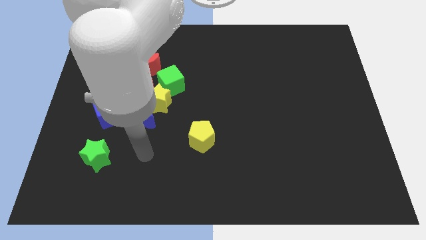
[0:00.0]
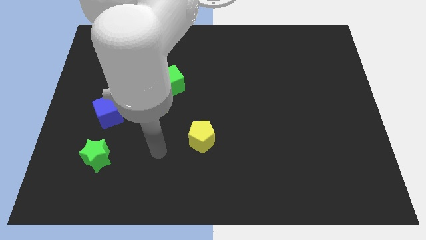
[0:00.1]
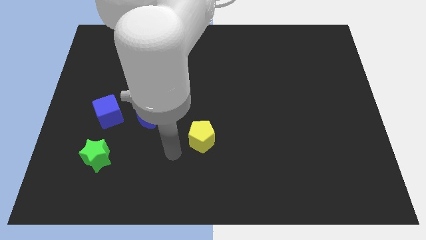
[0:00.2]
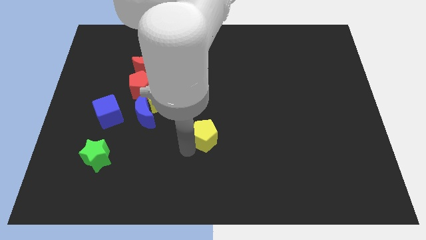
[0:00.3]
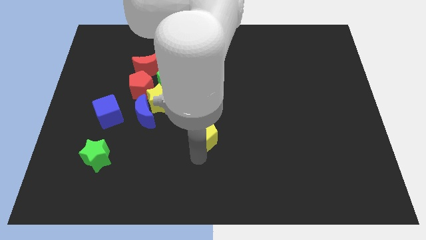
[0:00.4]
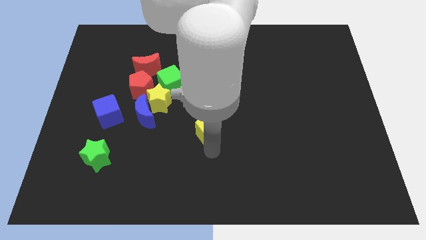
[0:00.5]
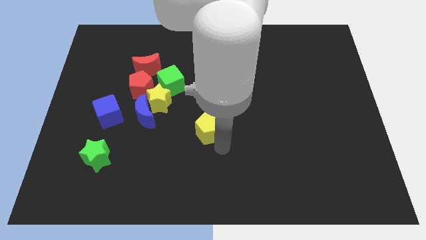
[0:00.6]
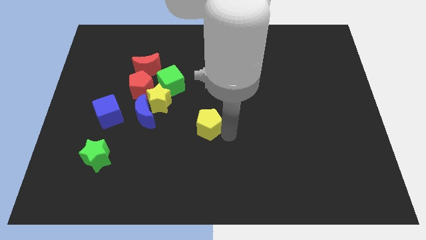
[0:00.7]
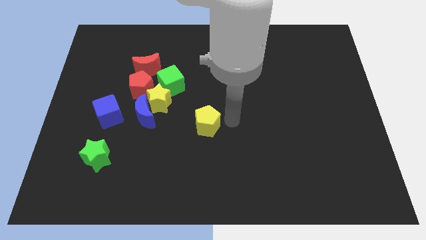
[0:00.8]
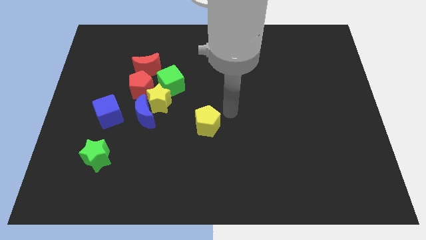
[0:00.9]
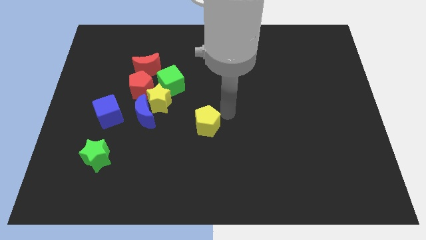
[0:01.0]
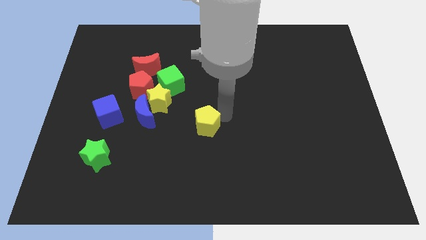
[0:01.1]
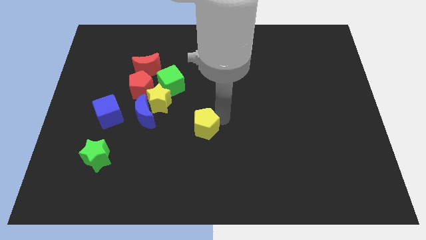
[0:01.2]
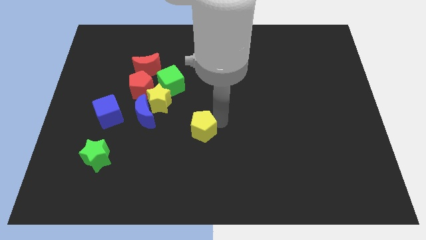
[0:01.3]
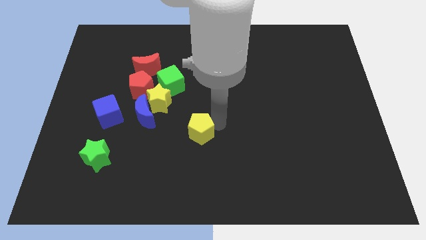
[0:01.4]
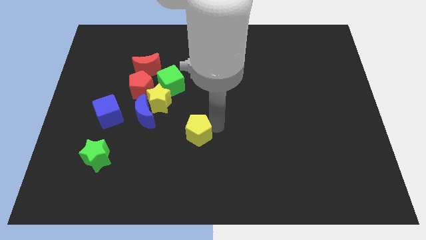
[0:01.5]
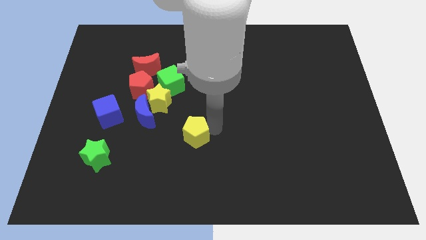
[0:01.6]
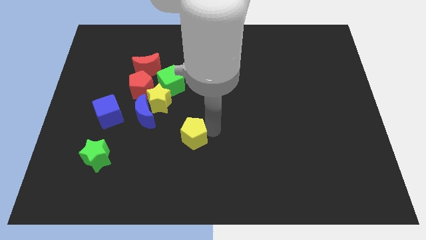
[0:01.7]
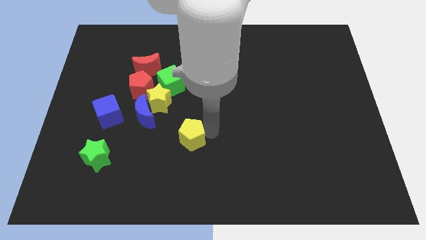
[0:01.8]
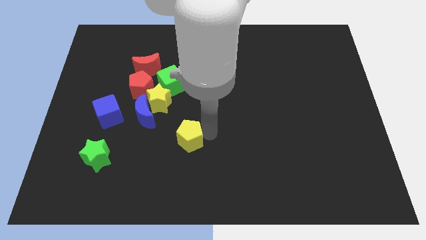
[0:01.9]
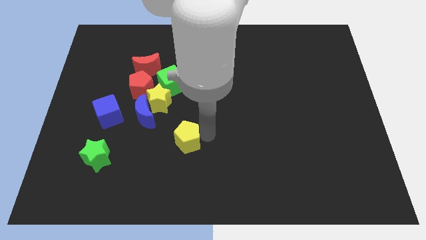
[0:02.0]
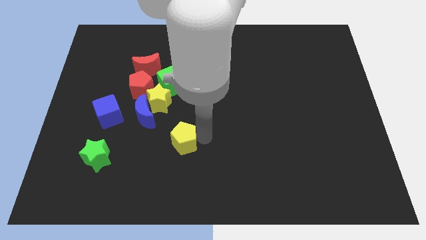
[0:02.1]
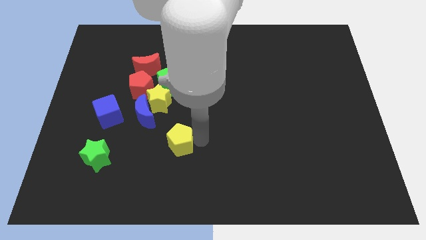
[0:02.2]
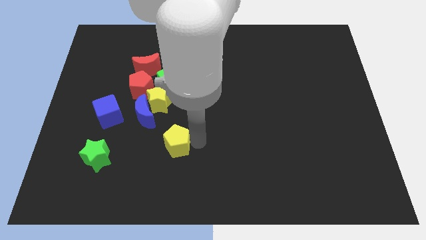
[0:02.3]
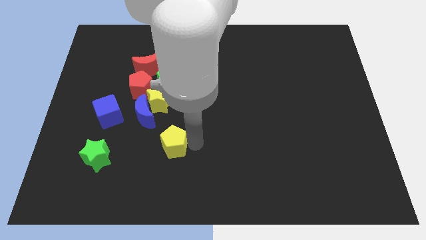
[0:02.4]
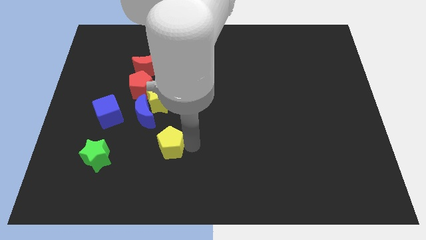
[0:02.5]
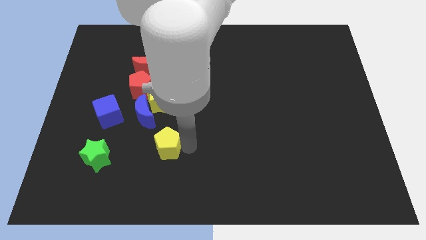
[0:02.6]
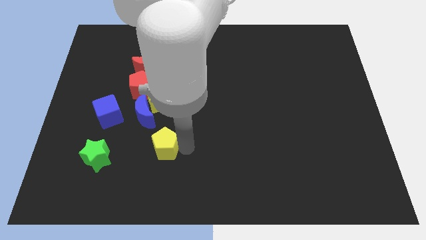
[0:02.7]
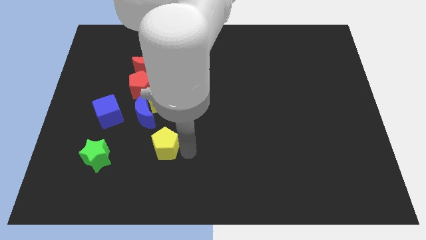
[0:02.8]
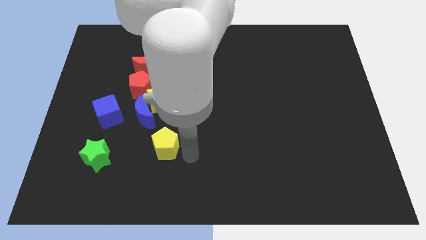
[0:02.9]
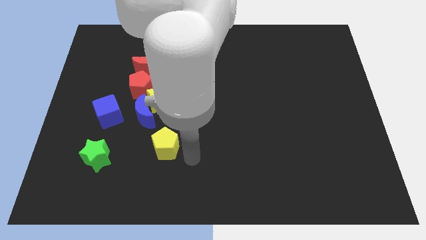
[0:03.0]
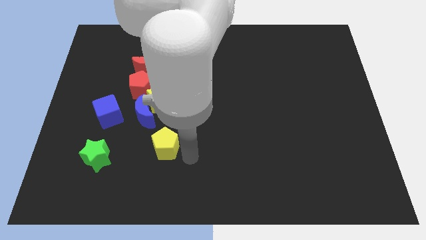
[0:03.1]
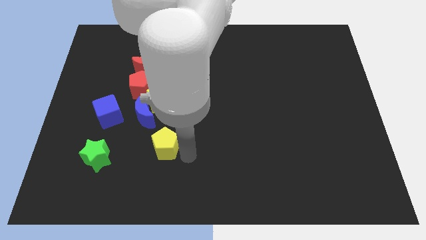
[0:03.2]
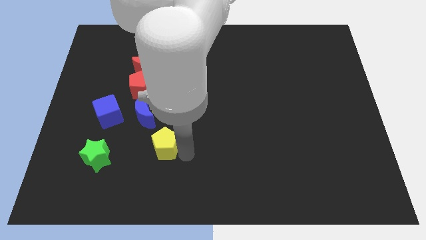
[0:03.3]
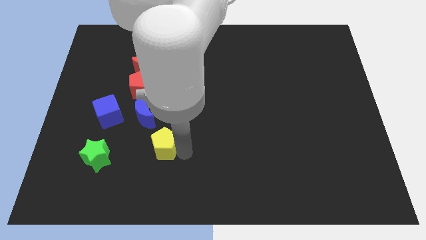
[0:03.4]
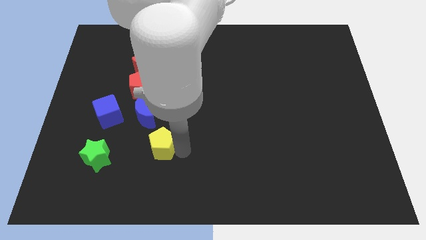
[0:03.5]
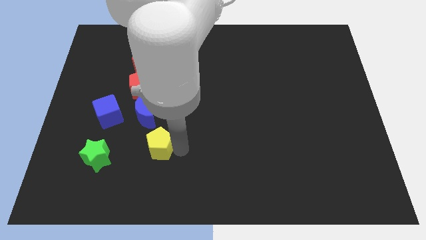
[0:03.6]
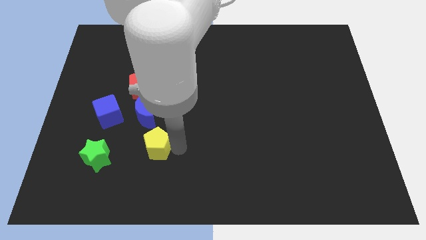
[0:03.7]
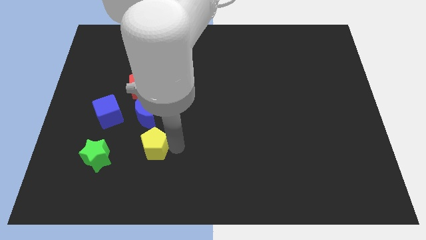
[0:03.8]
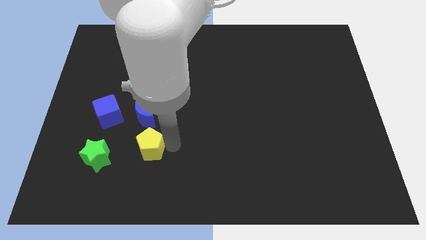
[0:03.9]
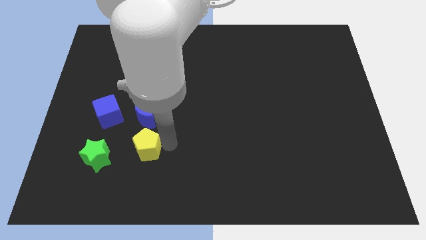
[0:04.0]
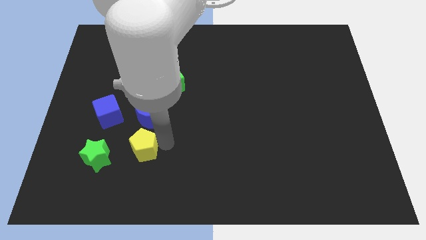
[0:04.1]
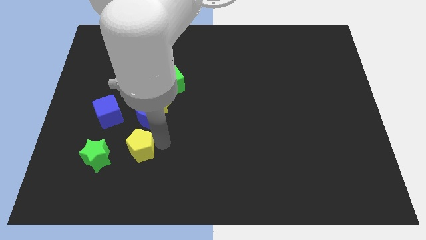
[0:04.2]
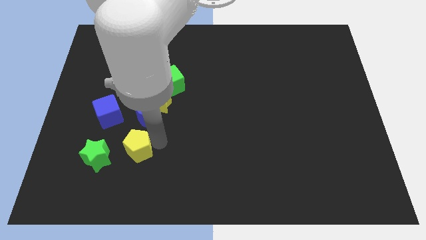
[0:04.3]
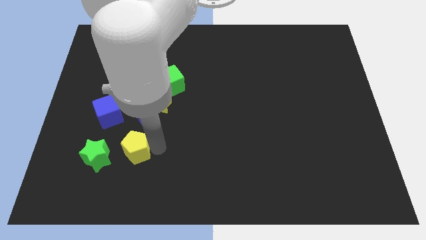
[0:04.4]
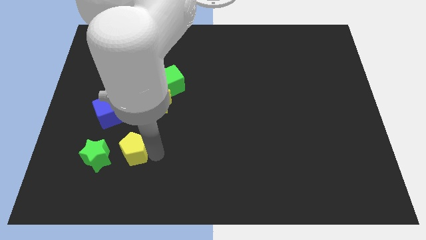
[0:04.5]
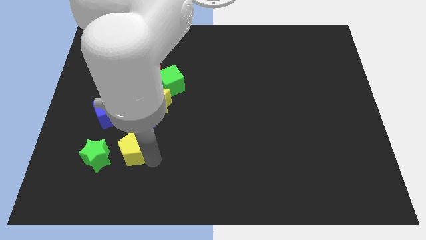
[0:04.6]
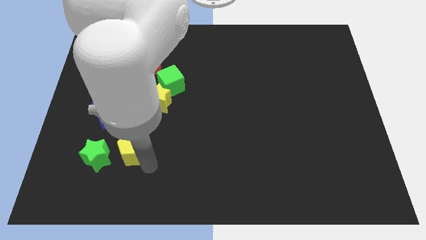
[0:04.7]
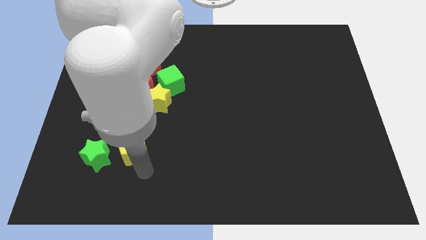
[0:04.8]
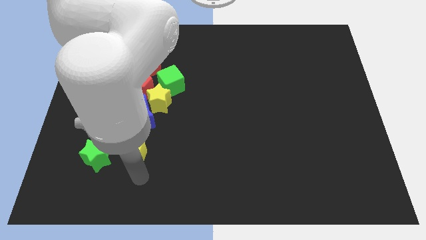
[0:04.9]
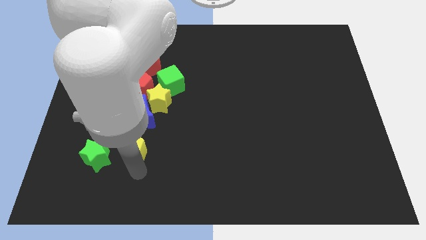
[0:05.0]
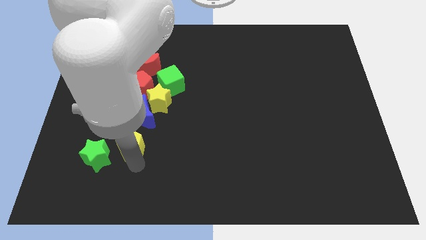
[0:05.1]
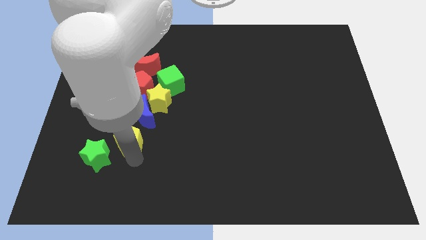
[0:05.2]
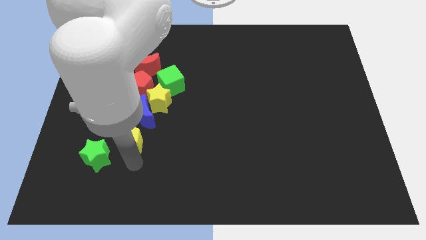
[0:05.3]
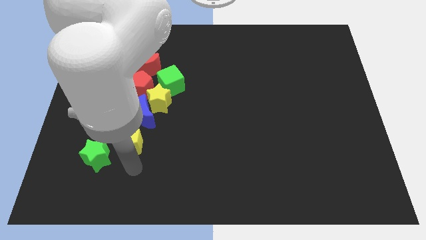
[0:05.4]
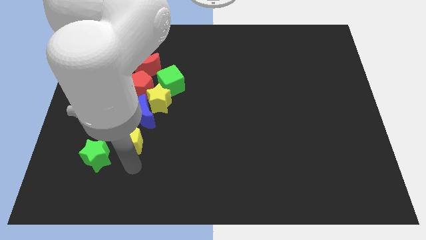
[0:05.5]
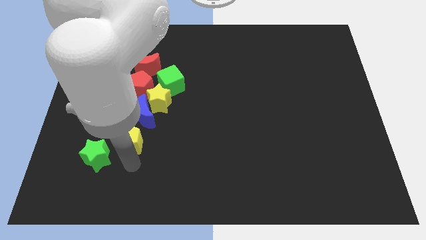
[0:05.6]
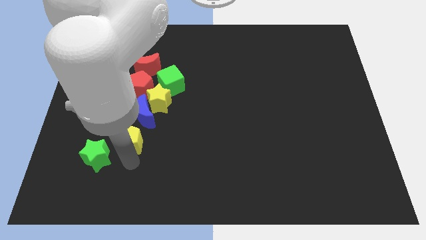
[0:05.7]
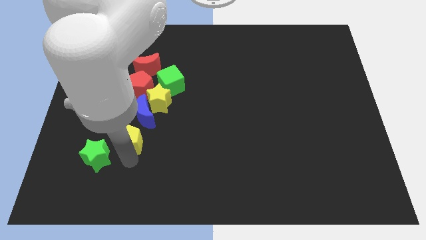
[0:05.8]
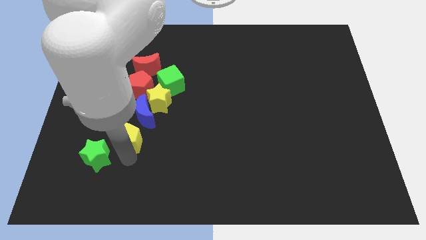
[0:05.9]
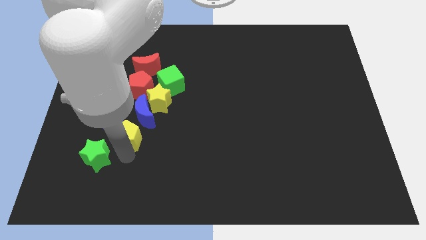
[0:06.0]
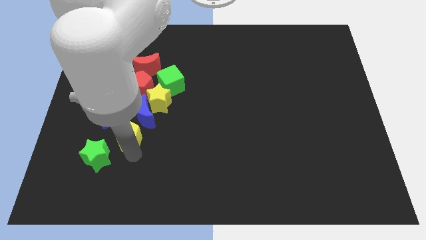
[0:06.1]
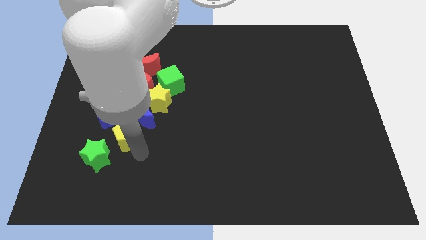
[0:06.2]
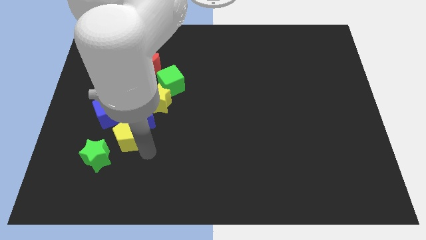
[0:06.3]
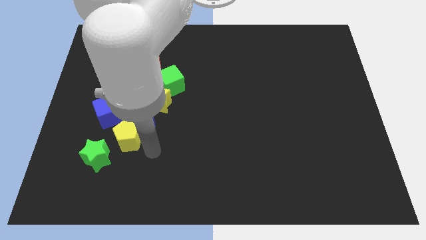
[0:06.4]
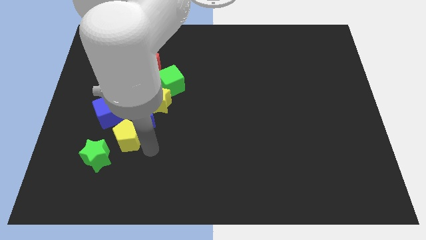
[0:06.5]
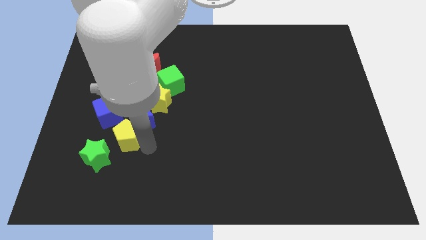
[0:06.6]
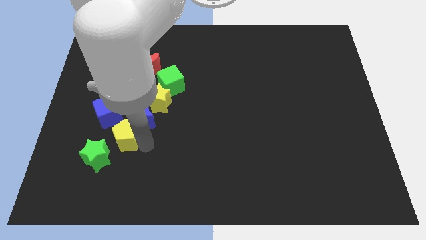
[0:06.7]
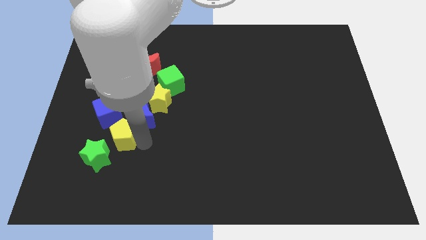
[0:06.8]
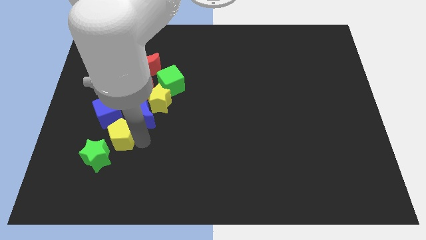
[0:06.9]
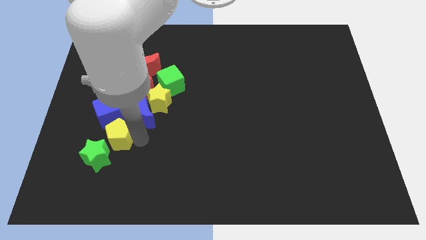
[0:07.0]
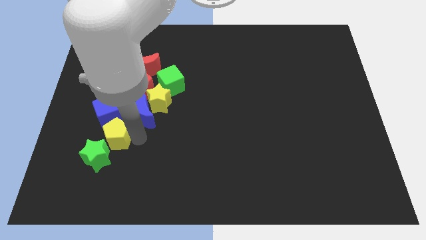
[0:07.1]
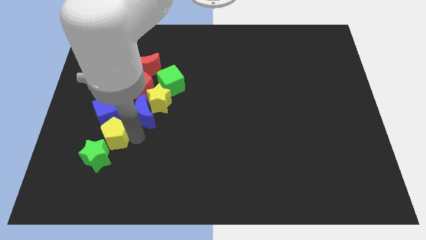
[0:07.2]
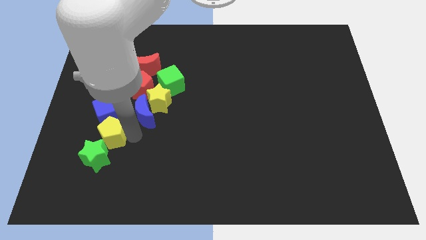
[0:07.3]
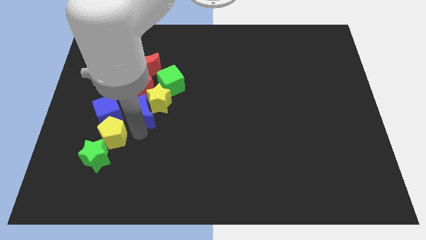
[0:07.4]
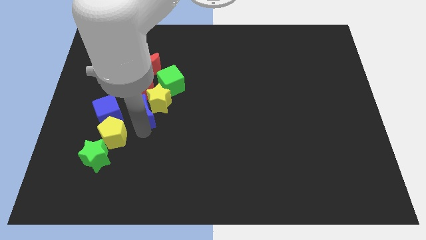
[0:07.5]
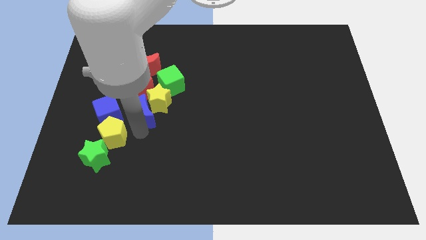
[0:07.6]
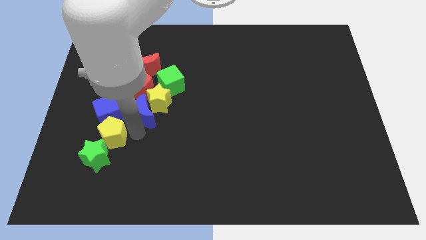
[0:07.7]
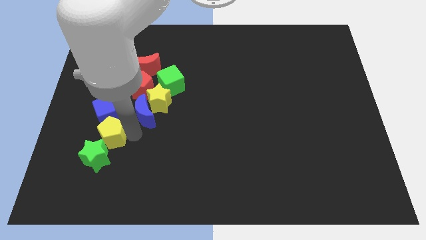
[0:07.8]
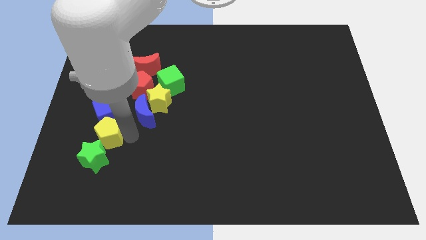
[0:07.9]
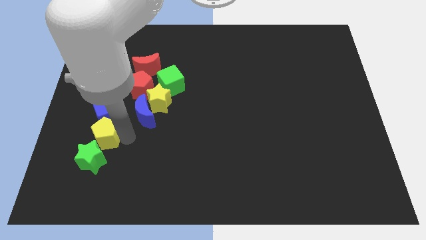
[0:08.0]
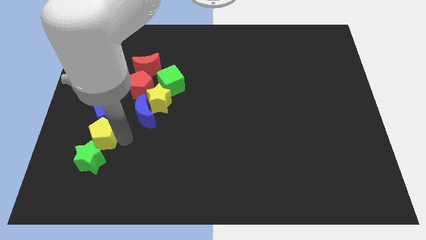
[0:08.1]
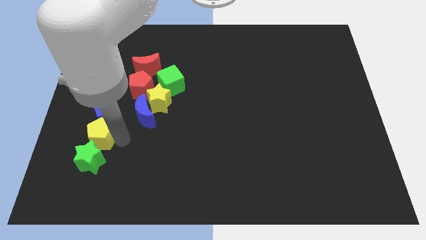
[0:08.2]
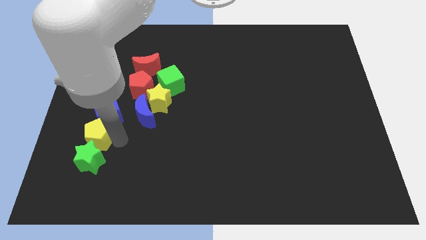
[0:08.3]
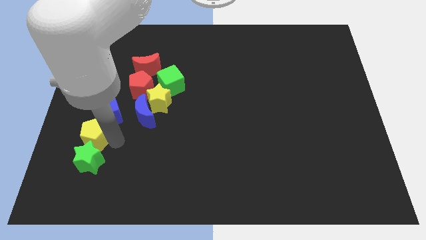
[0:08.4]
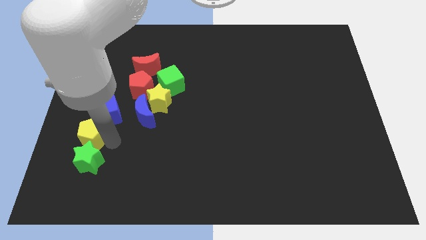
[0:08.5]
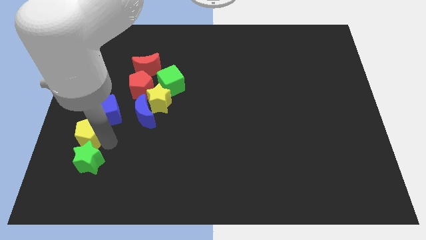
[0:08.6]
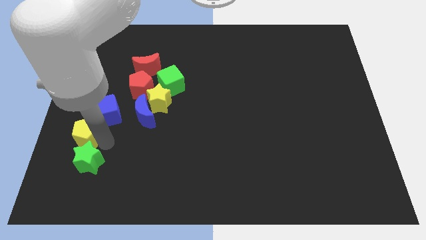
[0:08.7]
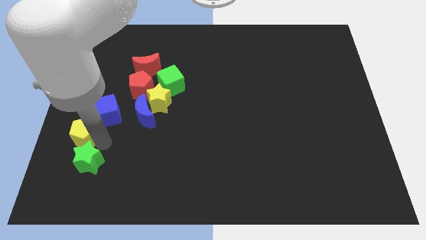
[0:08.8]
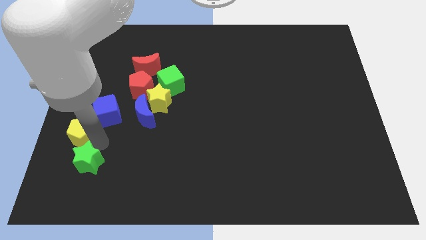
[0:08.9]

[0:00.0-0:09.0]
slide the yellow pentagon to the left side of the board
